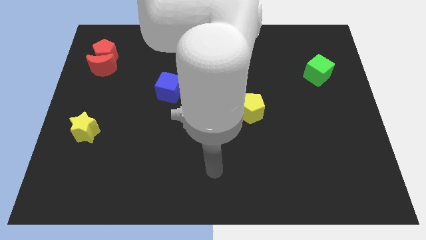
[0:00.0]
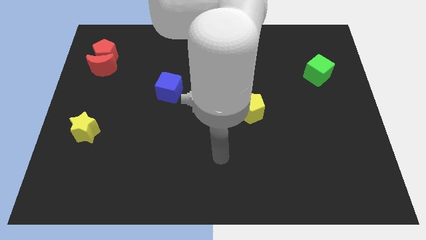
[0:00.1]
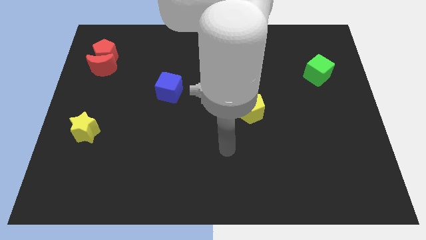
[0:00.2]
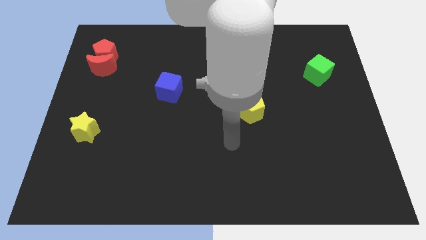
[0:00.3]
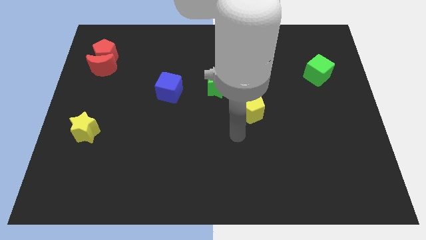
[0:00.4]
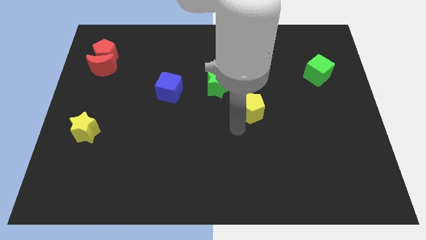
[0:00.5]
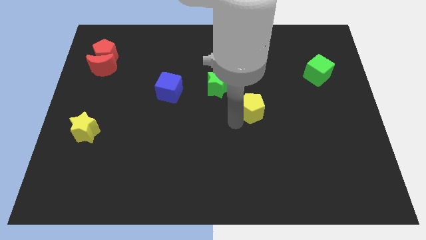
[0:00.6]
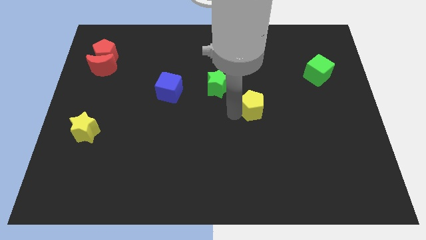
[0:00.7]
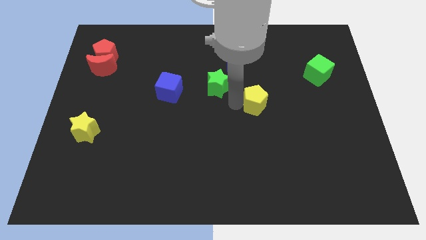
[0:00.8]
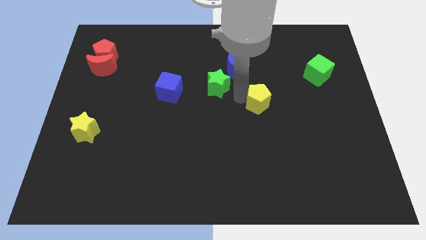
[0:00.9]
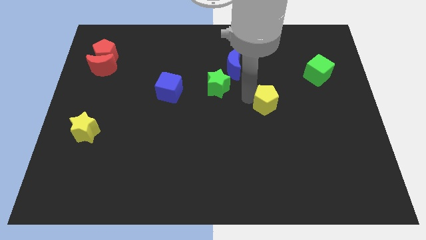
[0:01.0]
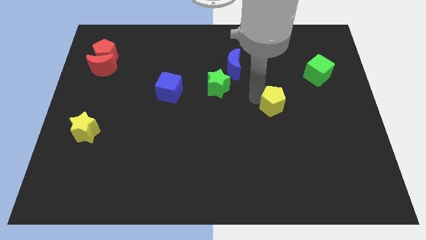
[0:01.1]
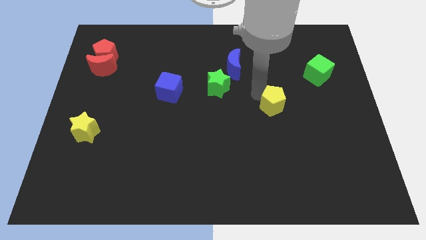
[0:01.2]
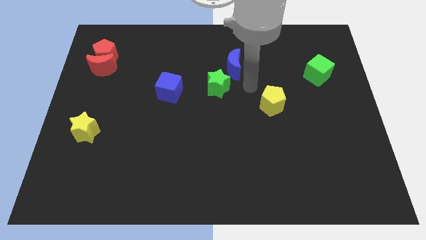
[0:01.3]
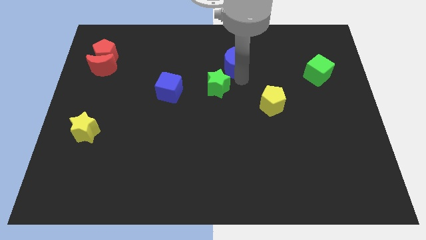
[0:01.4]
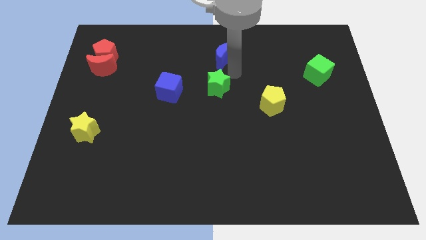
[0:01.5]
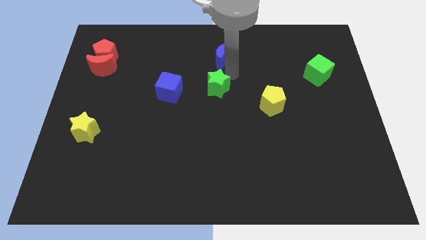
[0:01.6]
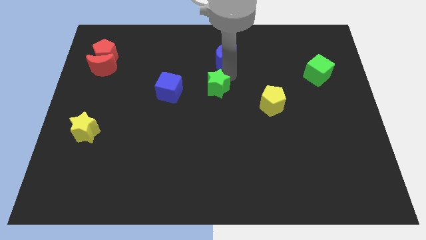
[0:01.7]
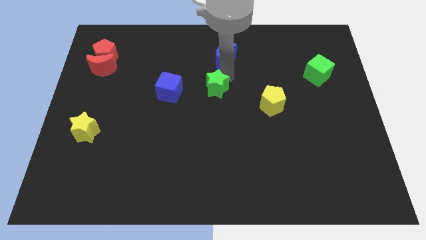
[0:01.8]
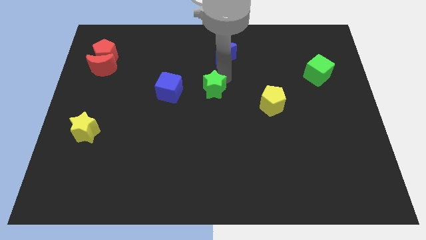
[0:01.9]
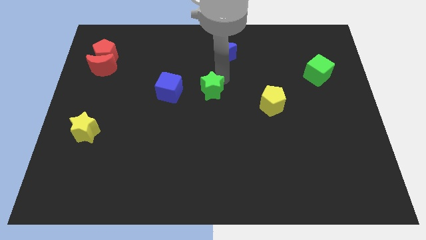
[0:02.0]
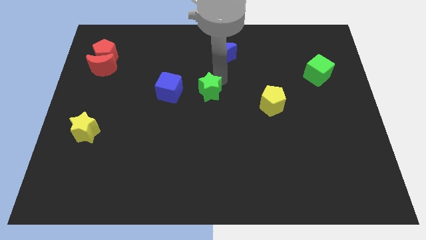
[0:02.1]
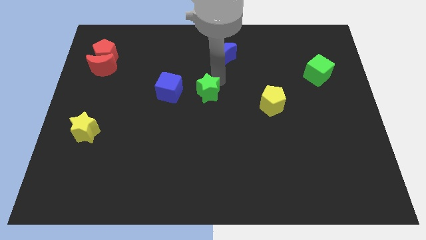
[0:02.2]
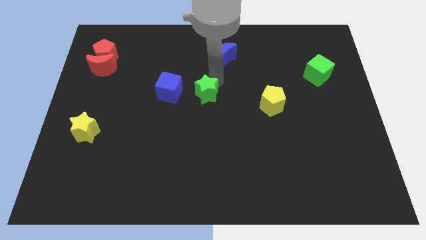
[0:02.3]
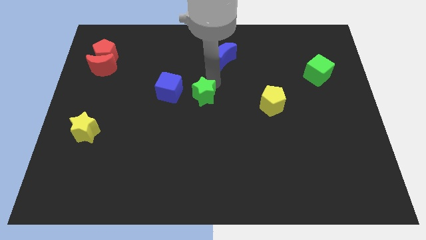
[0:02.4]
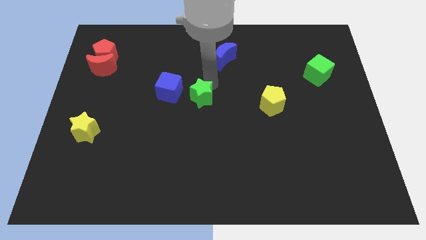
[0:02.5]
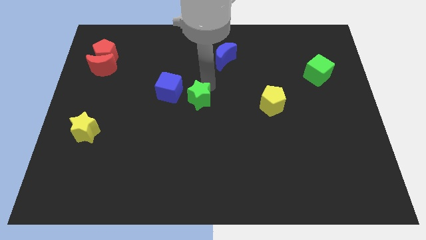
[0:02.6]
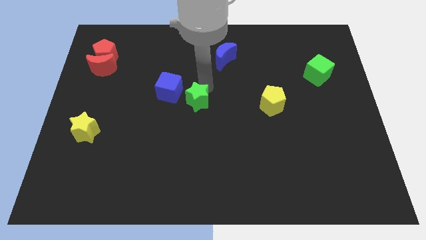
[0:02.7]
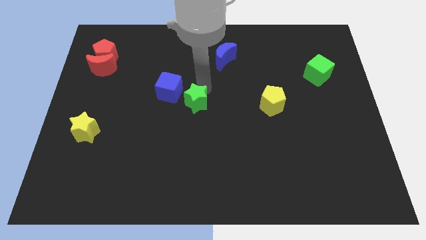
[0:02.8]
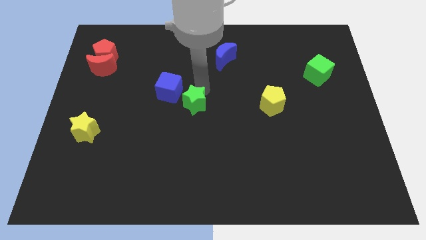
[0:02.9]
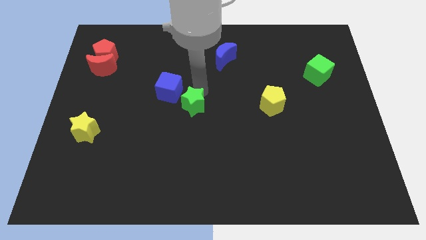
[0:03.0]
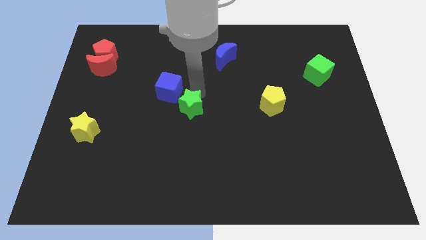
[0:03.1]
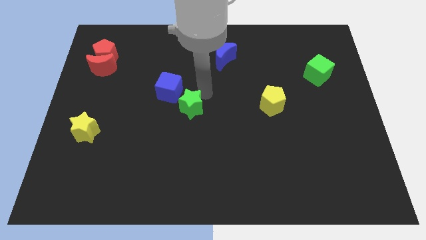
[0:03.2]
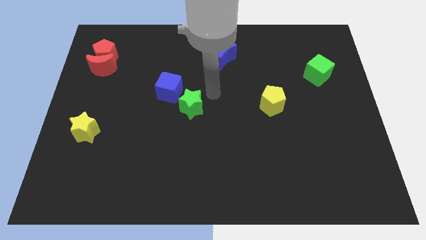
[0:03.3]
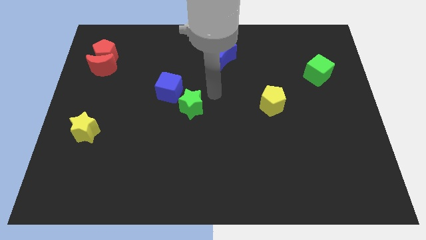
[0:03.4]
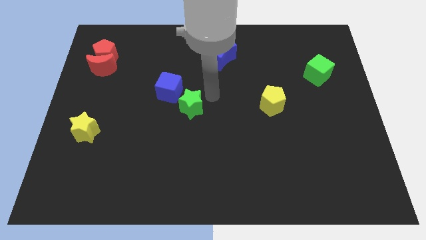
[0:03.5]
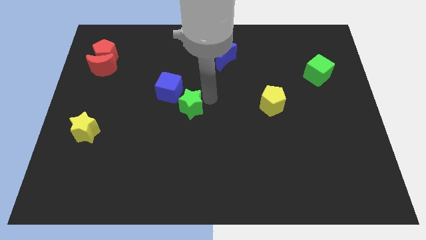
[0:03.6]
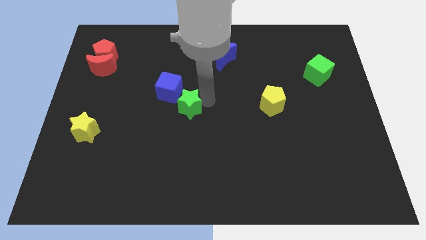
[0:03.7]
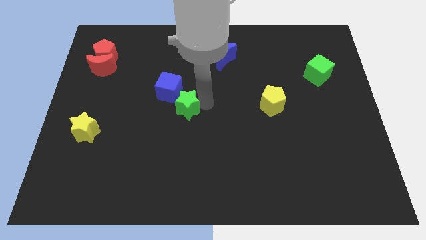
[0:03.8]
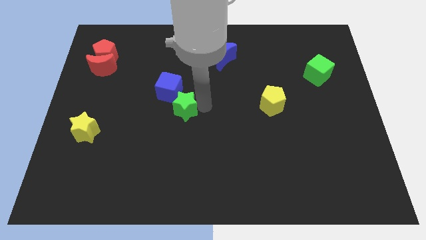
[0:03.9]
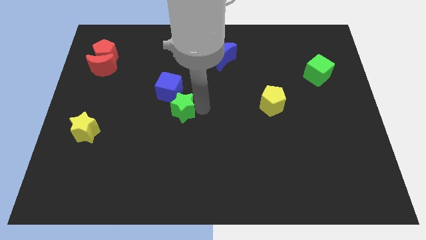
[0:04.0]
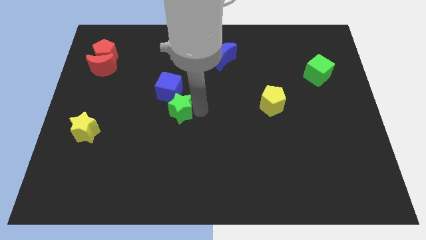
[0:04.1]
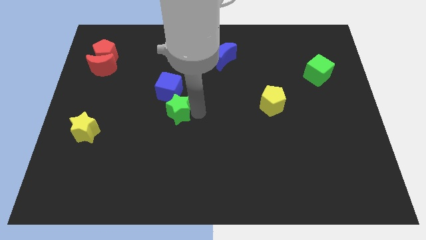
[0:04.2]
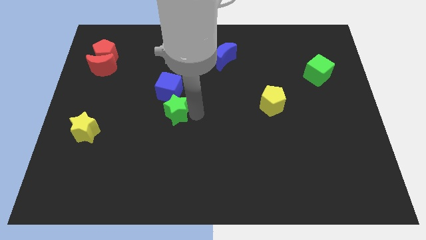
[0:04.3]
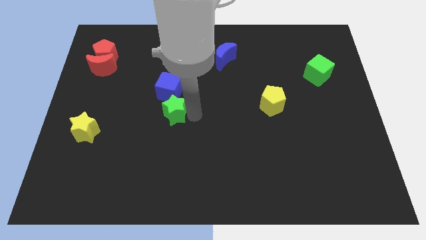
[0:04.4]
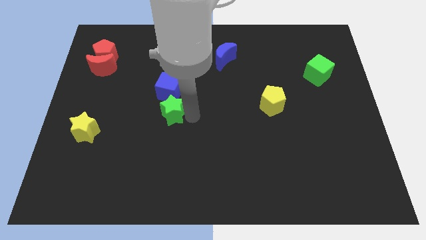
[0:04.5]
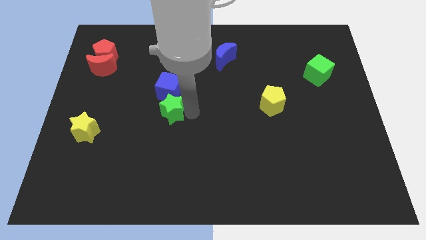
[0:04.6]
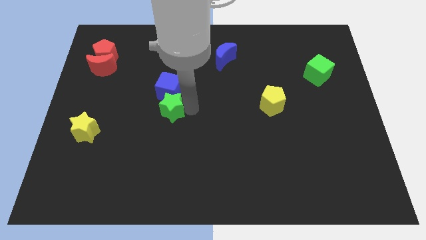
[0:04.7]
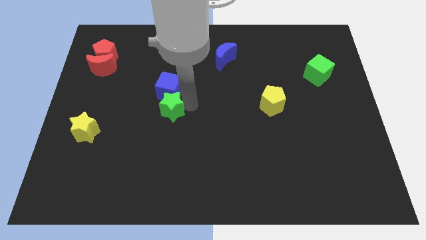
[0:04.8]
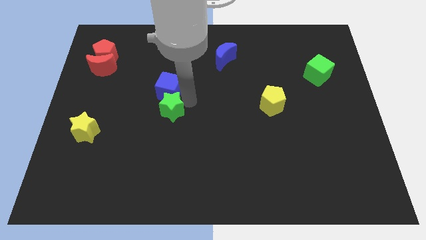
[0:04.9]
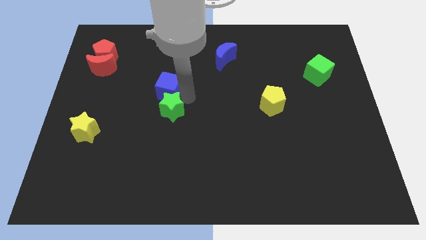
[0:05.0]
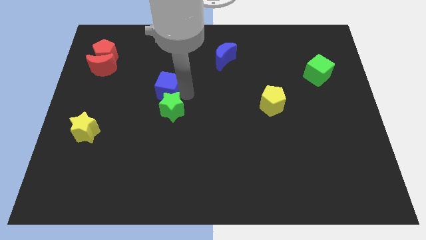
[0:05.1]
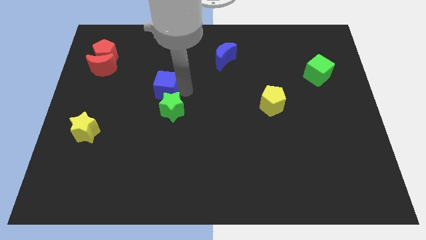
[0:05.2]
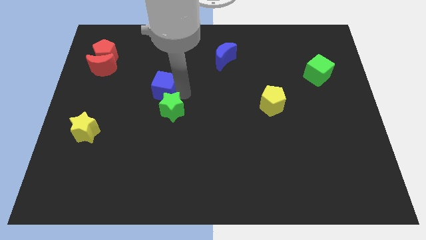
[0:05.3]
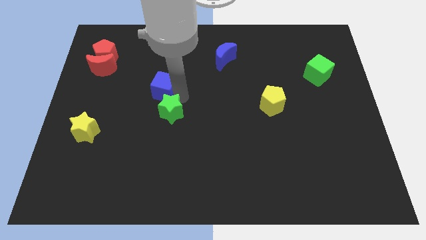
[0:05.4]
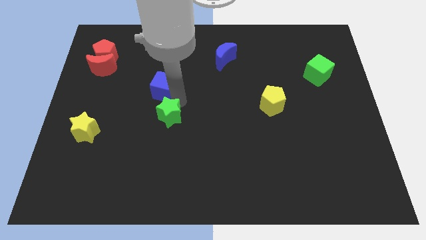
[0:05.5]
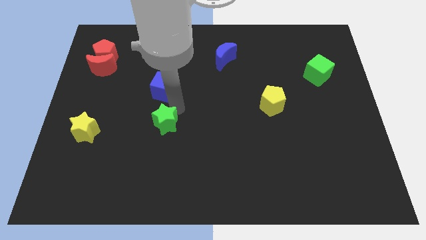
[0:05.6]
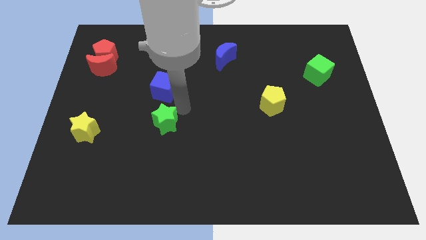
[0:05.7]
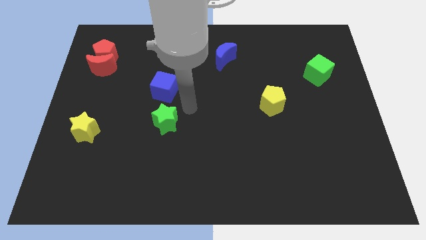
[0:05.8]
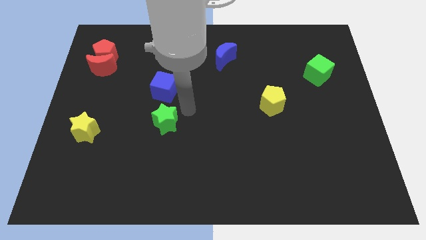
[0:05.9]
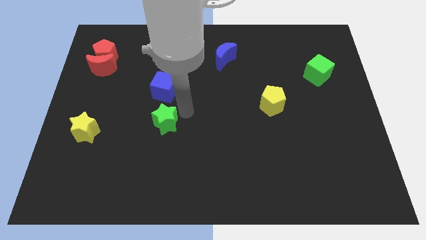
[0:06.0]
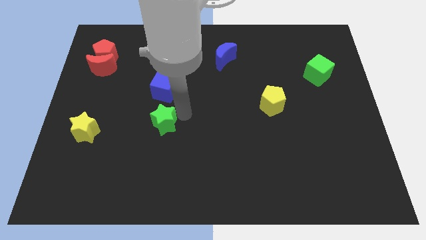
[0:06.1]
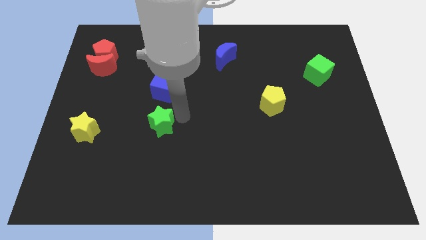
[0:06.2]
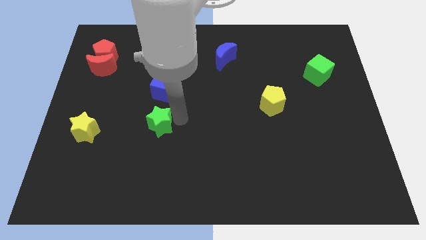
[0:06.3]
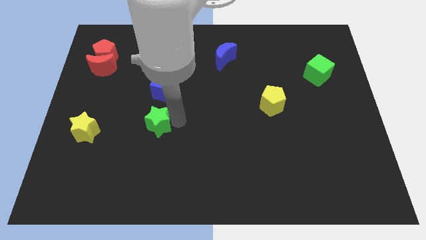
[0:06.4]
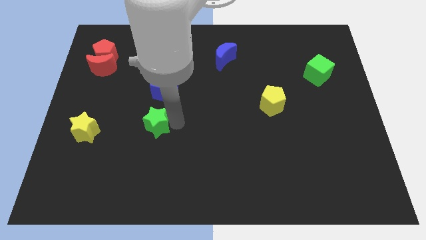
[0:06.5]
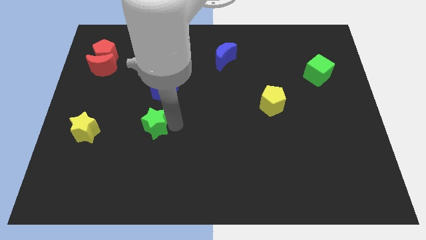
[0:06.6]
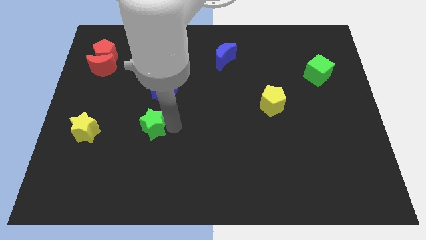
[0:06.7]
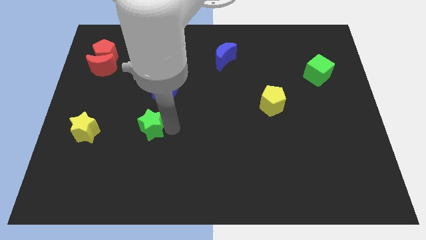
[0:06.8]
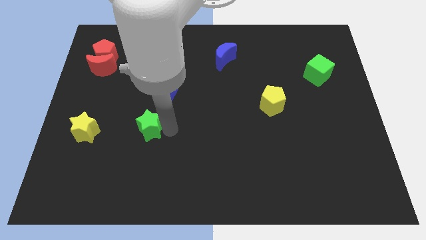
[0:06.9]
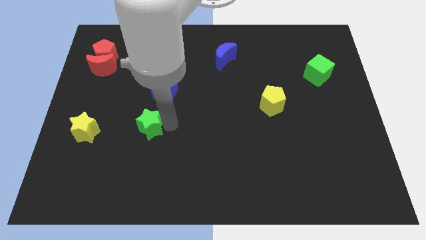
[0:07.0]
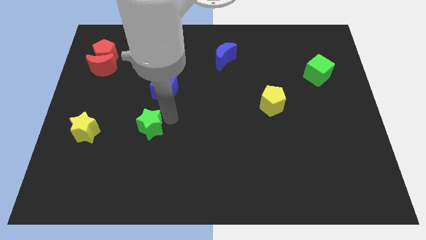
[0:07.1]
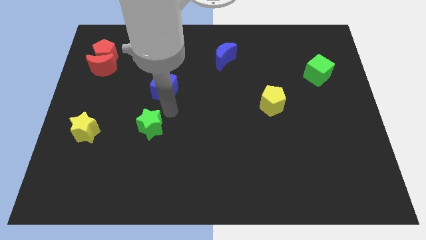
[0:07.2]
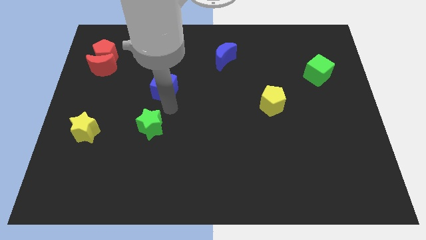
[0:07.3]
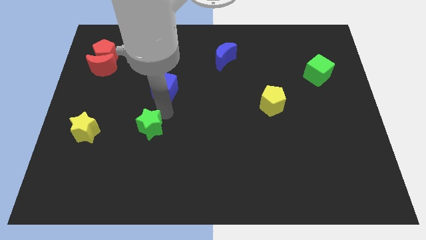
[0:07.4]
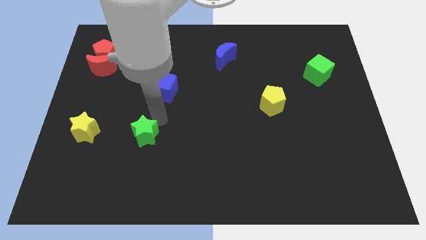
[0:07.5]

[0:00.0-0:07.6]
slide the green star downwards and left

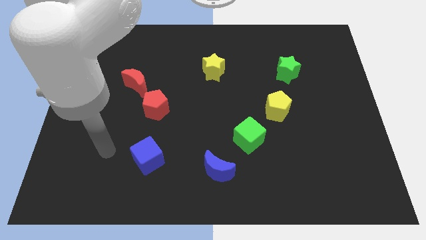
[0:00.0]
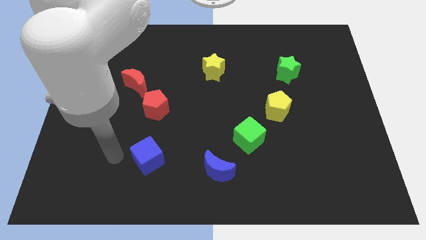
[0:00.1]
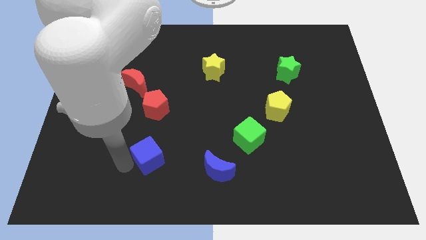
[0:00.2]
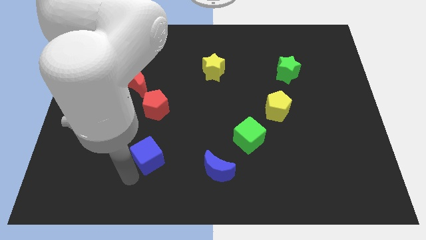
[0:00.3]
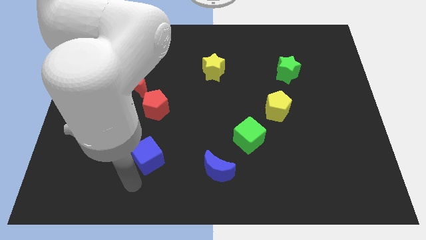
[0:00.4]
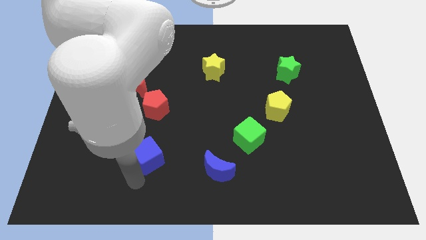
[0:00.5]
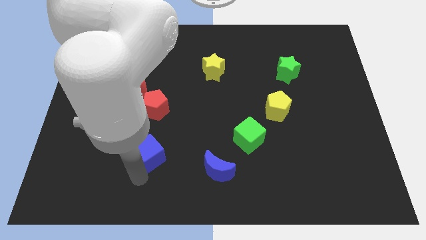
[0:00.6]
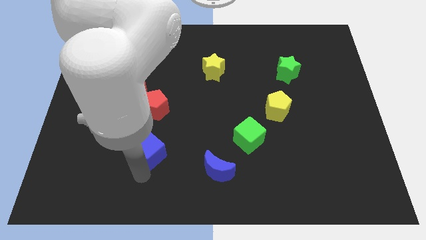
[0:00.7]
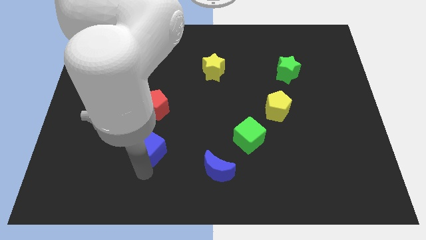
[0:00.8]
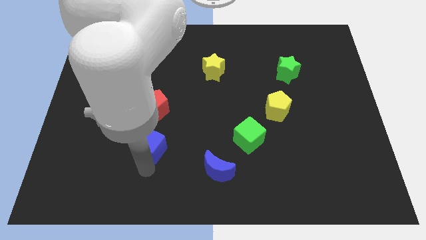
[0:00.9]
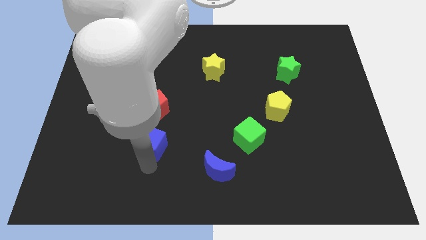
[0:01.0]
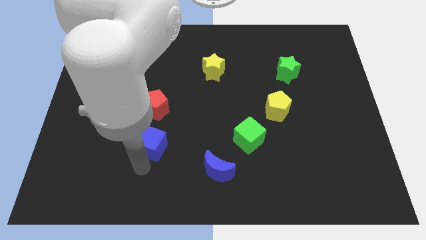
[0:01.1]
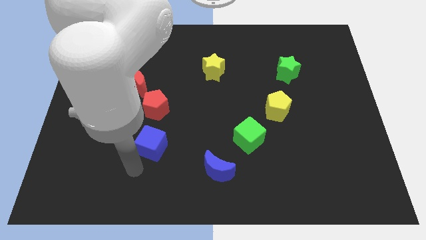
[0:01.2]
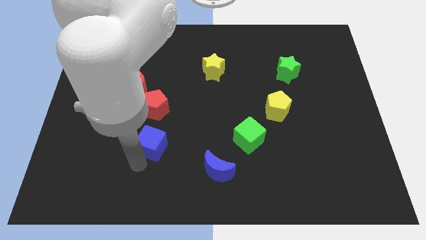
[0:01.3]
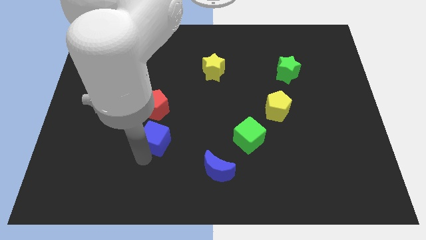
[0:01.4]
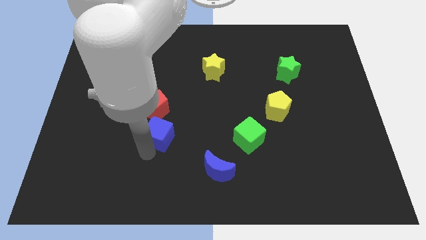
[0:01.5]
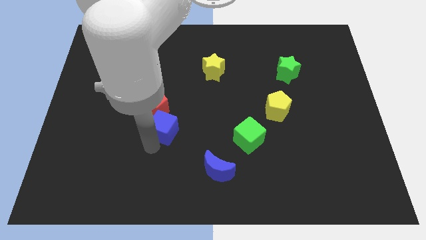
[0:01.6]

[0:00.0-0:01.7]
slightly push the blue cube upwards
